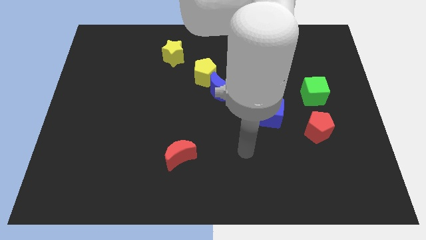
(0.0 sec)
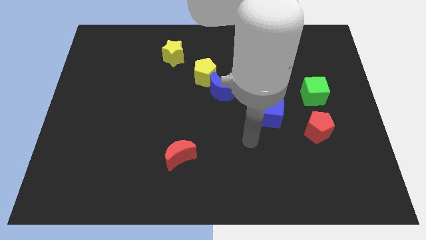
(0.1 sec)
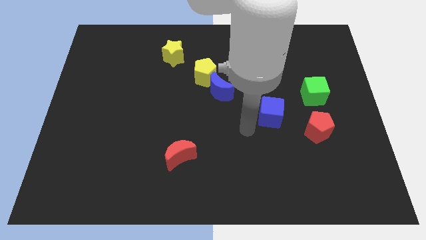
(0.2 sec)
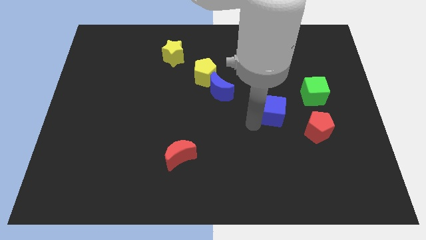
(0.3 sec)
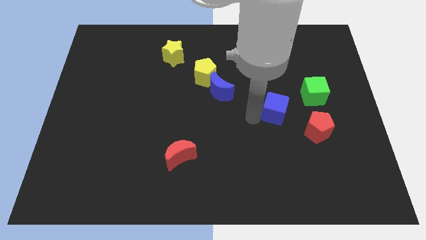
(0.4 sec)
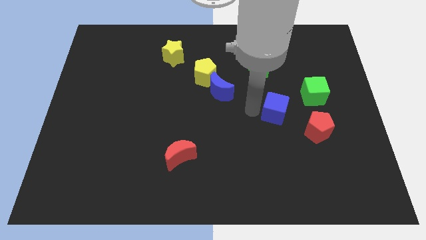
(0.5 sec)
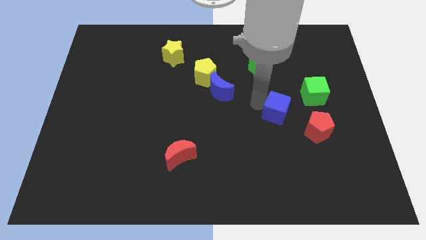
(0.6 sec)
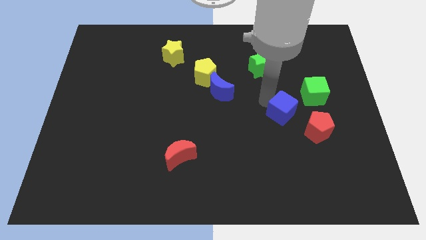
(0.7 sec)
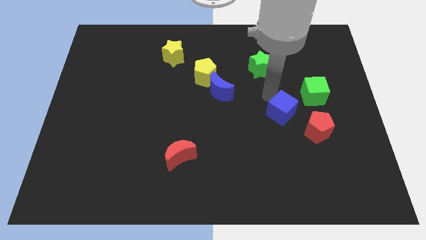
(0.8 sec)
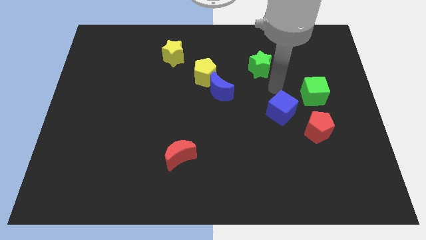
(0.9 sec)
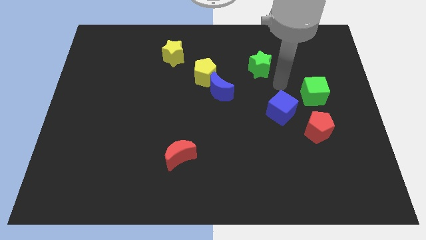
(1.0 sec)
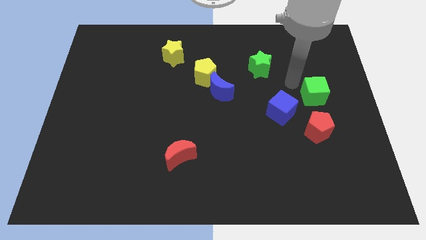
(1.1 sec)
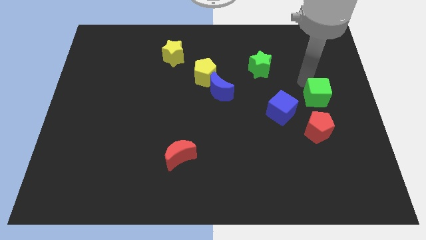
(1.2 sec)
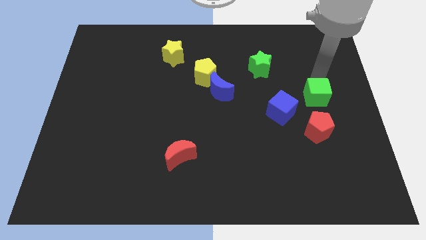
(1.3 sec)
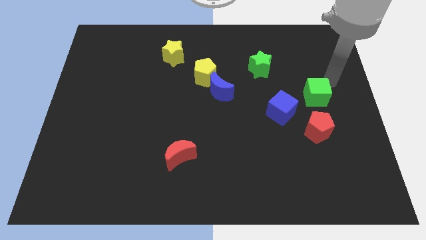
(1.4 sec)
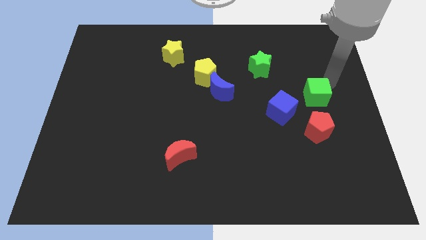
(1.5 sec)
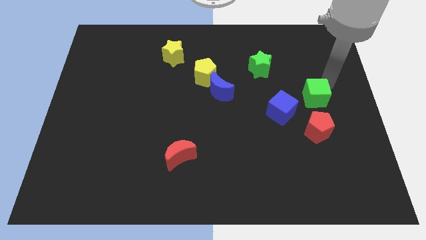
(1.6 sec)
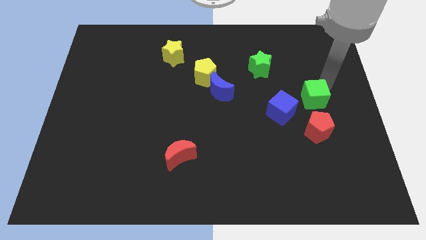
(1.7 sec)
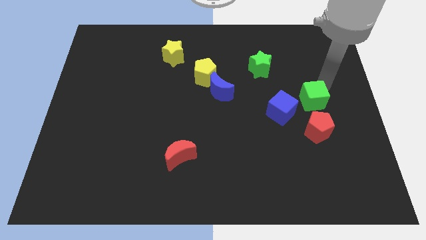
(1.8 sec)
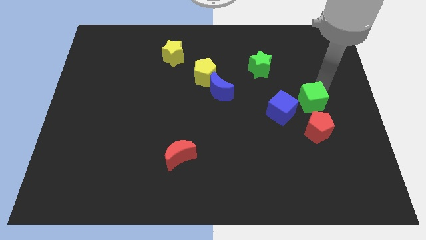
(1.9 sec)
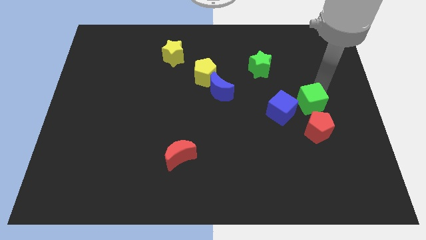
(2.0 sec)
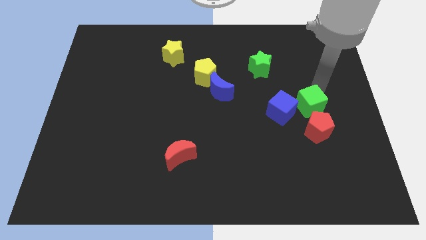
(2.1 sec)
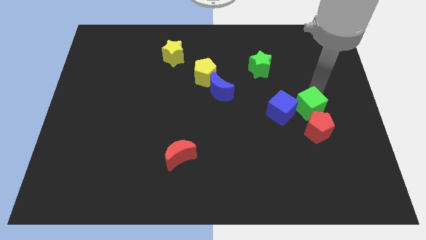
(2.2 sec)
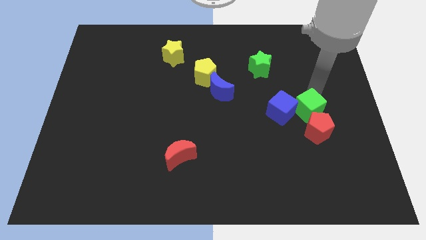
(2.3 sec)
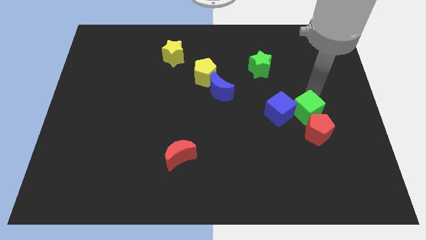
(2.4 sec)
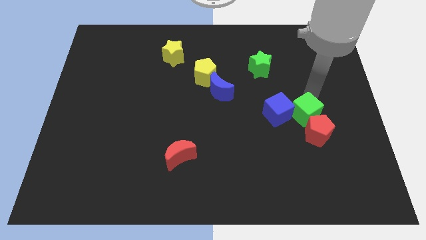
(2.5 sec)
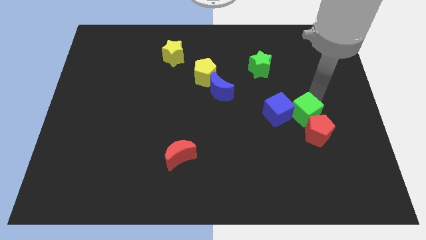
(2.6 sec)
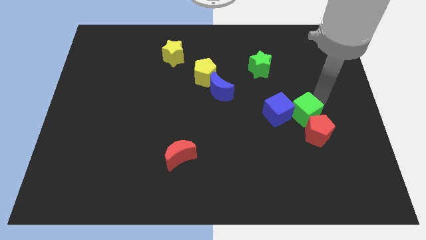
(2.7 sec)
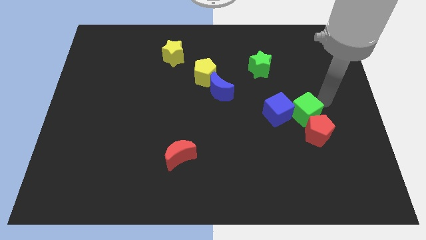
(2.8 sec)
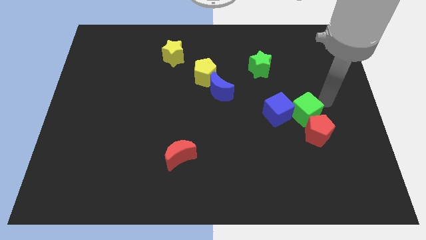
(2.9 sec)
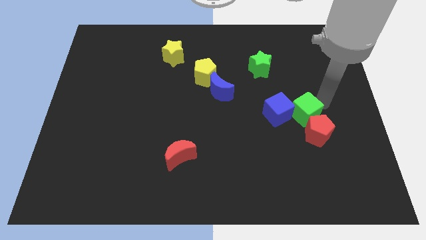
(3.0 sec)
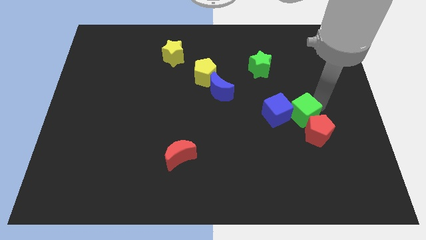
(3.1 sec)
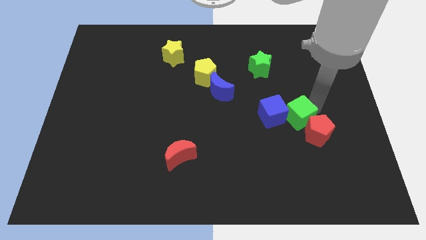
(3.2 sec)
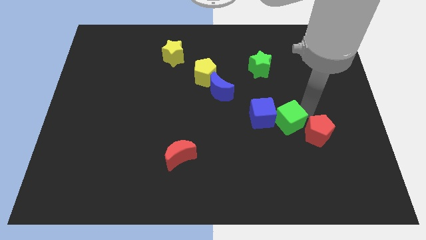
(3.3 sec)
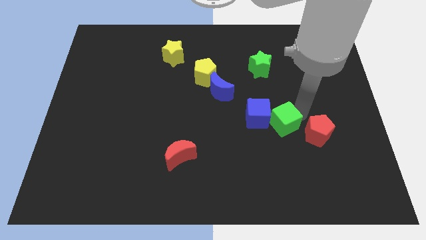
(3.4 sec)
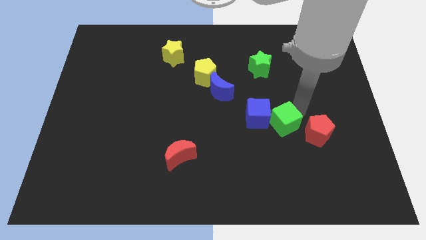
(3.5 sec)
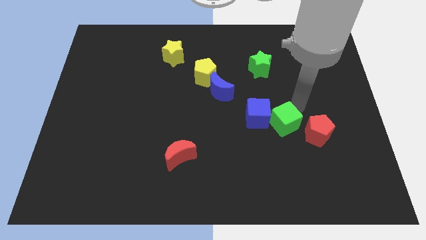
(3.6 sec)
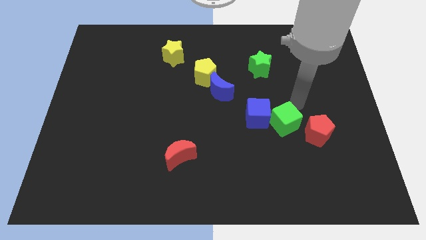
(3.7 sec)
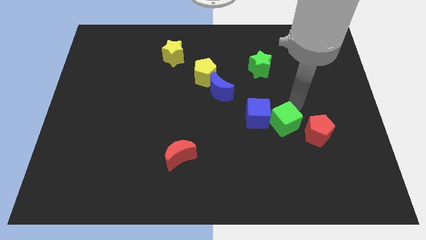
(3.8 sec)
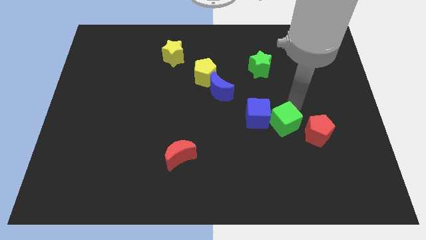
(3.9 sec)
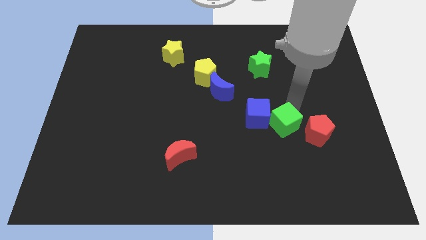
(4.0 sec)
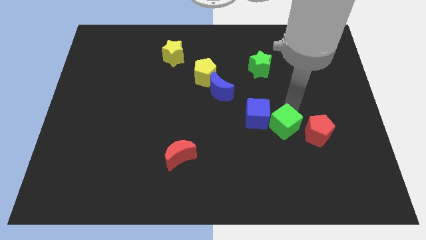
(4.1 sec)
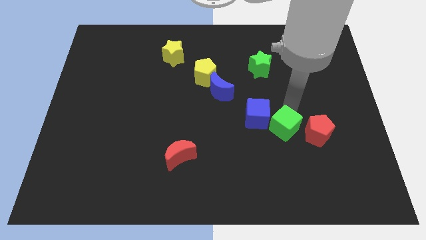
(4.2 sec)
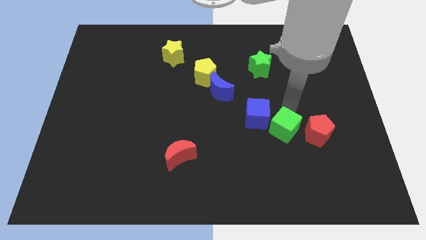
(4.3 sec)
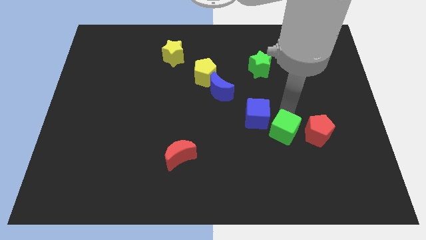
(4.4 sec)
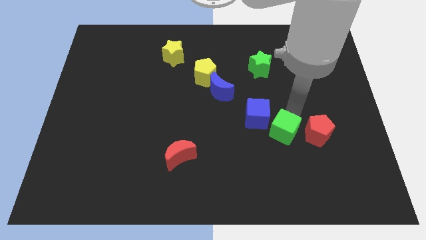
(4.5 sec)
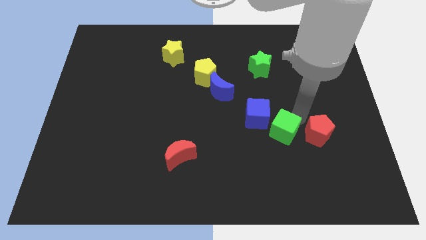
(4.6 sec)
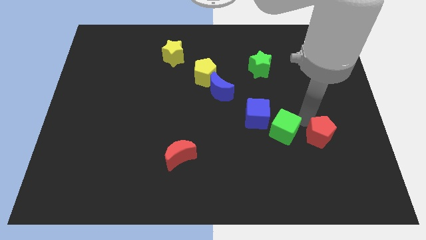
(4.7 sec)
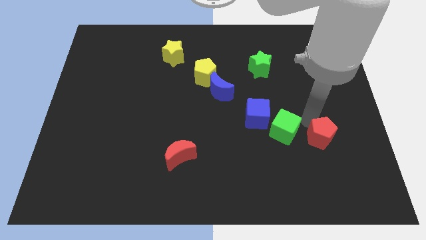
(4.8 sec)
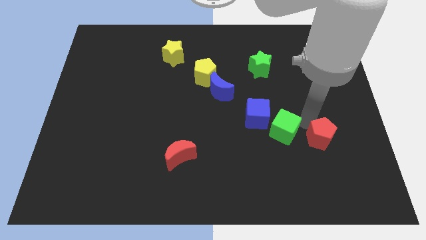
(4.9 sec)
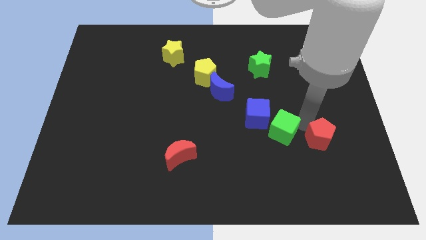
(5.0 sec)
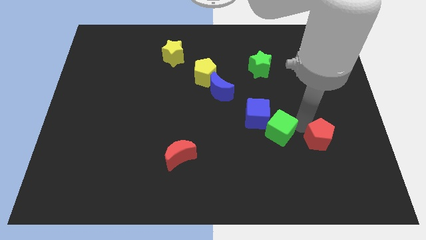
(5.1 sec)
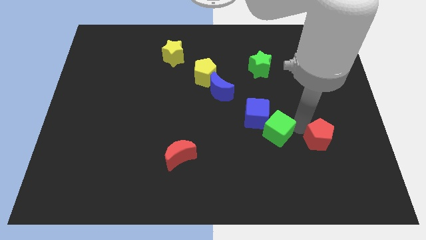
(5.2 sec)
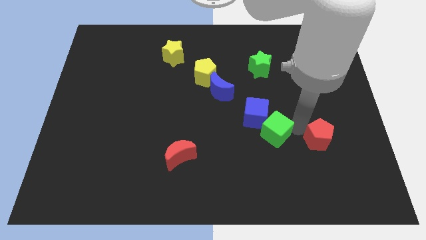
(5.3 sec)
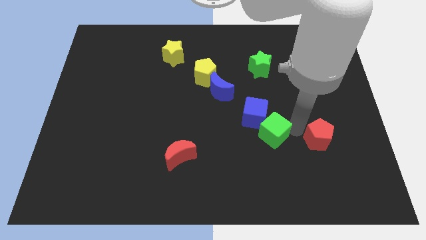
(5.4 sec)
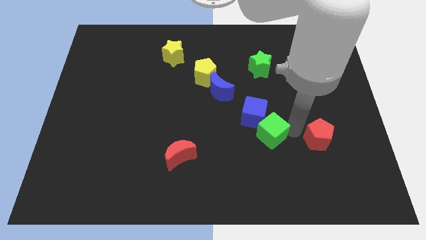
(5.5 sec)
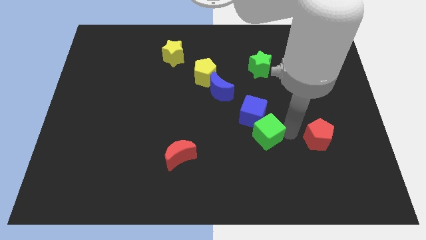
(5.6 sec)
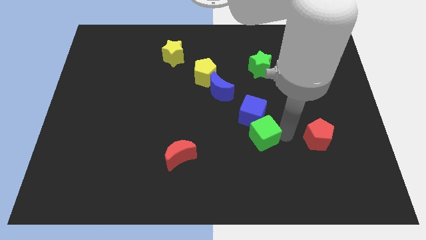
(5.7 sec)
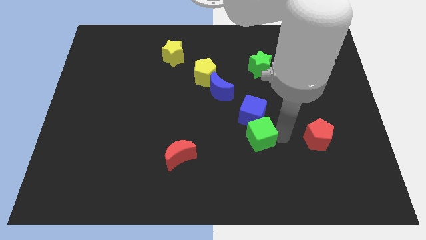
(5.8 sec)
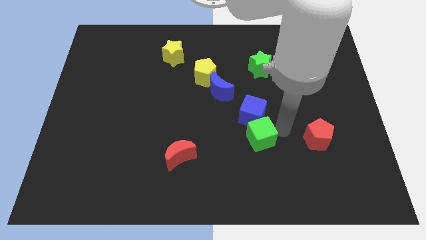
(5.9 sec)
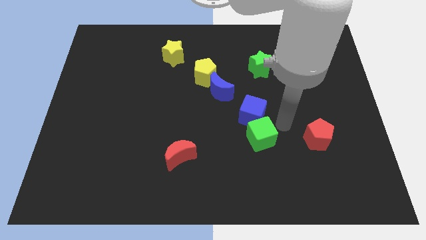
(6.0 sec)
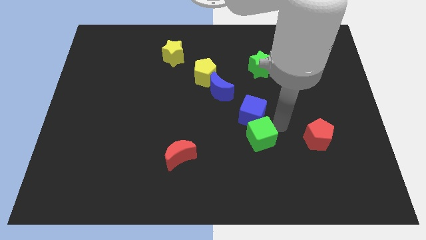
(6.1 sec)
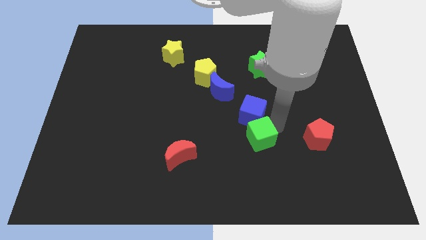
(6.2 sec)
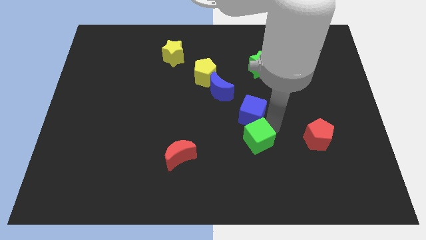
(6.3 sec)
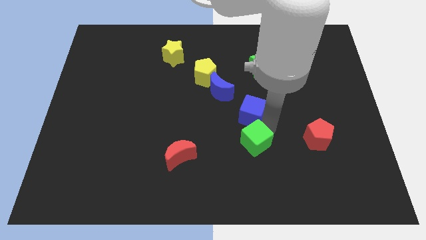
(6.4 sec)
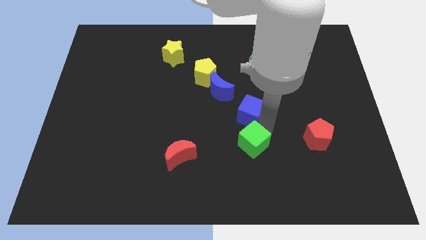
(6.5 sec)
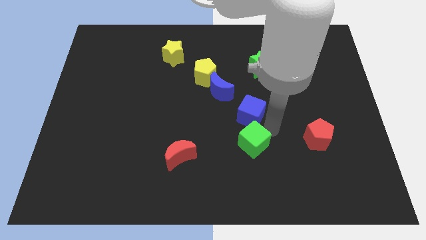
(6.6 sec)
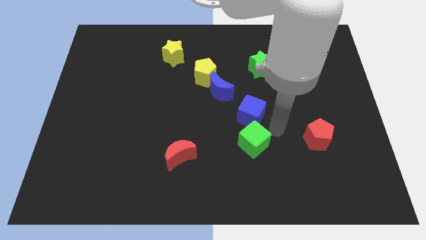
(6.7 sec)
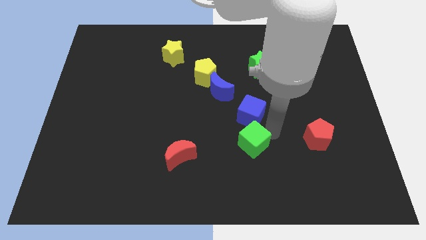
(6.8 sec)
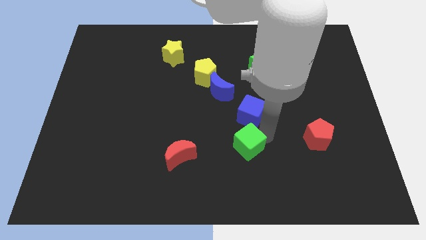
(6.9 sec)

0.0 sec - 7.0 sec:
push the green cube to the right side of the red moon
